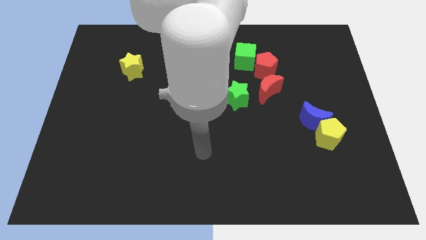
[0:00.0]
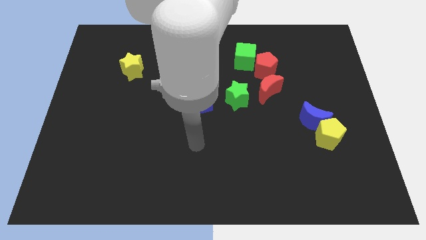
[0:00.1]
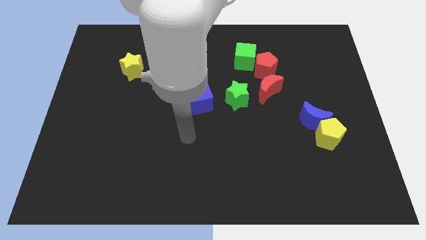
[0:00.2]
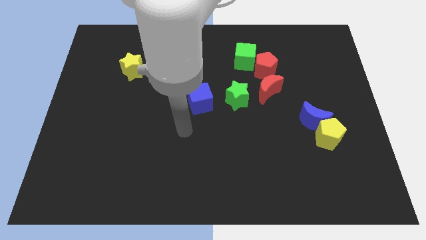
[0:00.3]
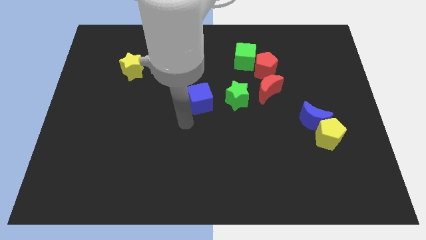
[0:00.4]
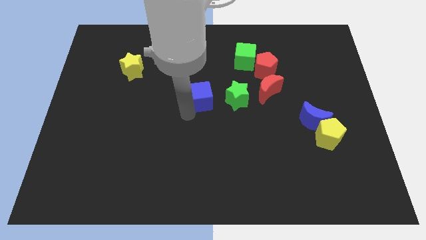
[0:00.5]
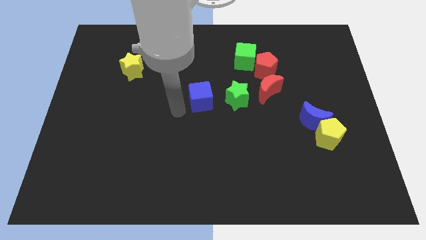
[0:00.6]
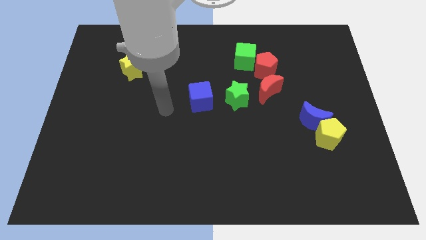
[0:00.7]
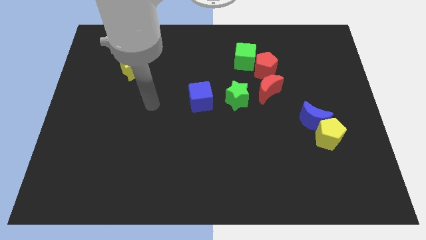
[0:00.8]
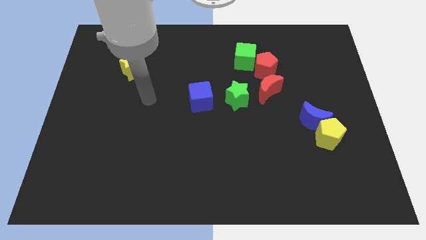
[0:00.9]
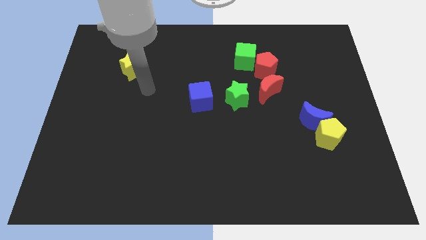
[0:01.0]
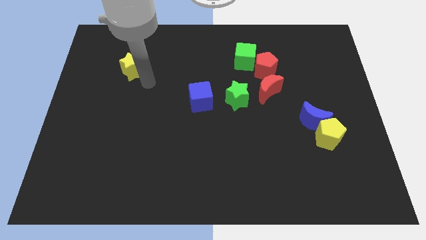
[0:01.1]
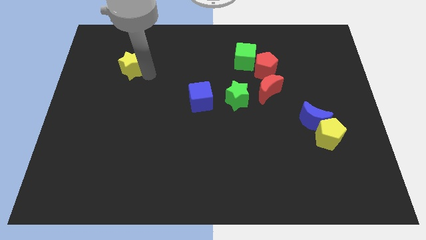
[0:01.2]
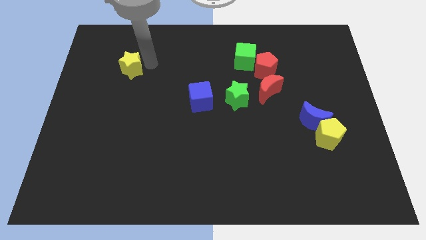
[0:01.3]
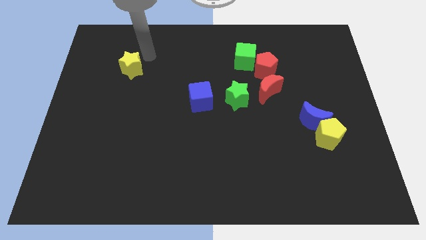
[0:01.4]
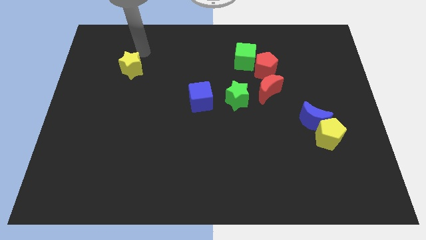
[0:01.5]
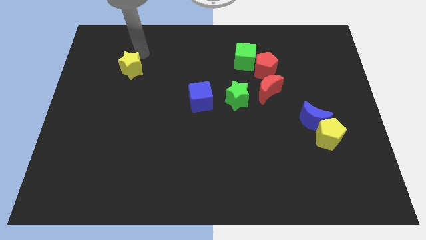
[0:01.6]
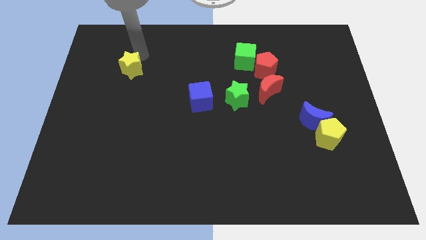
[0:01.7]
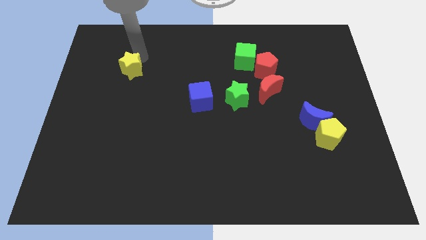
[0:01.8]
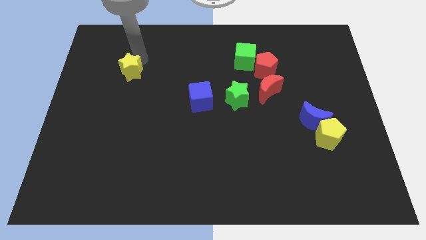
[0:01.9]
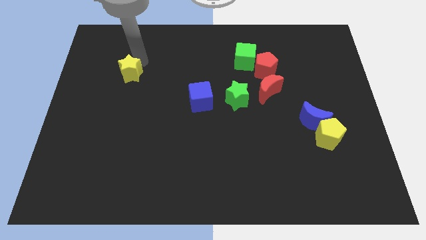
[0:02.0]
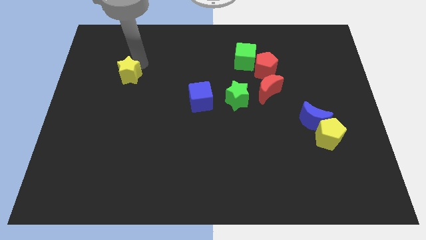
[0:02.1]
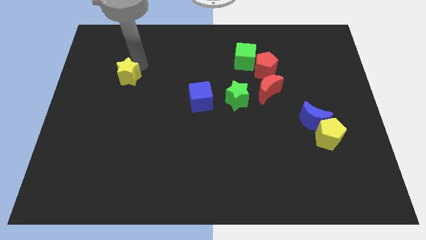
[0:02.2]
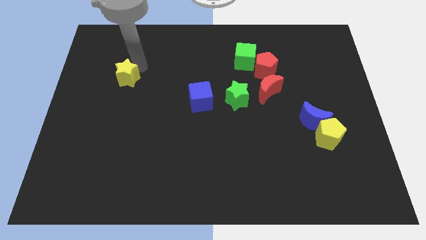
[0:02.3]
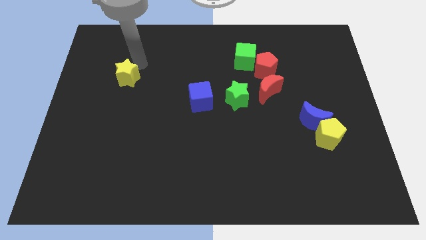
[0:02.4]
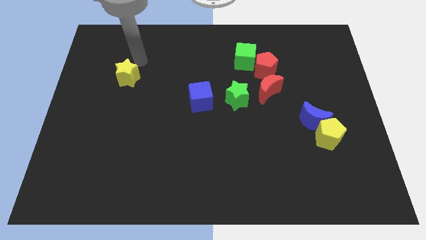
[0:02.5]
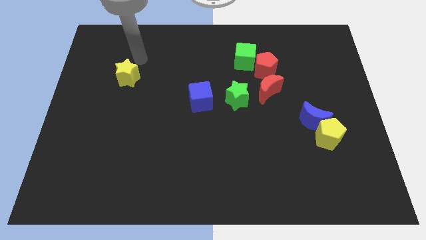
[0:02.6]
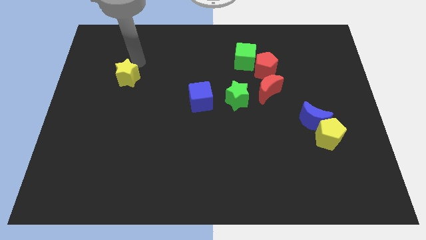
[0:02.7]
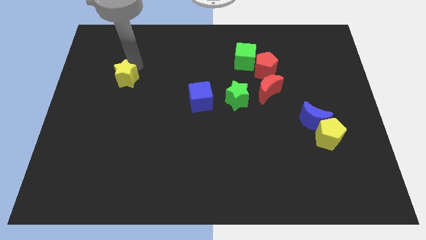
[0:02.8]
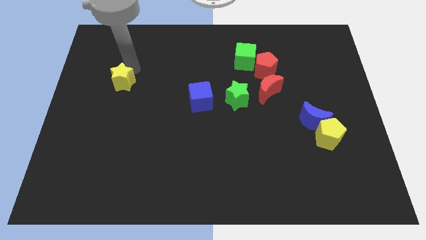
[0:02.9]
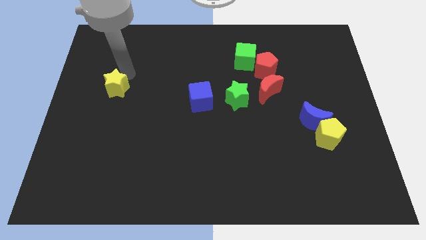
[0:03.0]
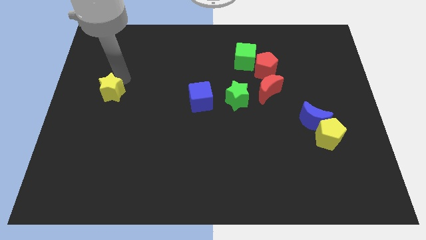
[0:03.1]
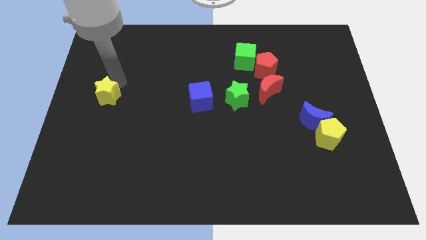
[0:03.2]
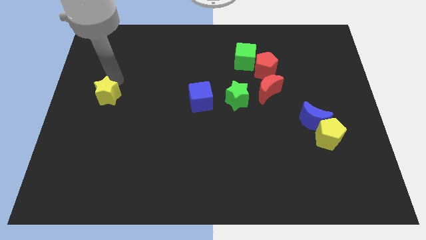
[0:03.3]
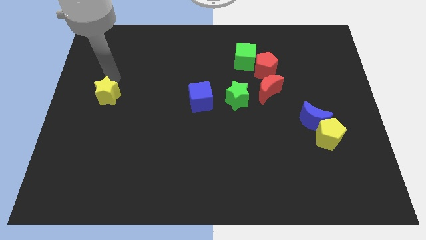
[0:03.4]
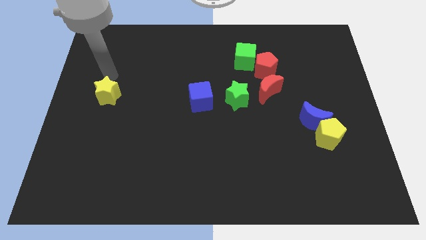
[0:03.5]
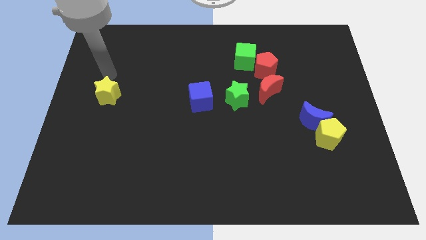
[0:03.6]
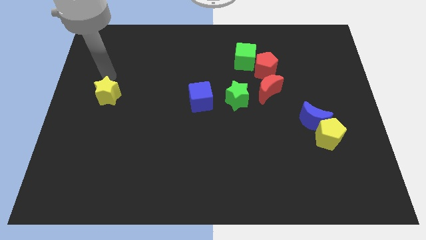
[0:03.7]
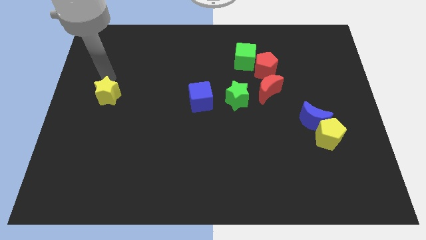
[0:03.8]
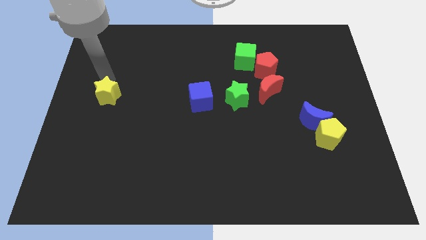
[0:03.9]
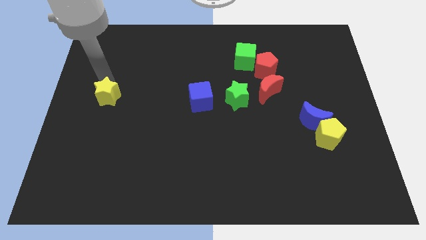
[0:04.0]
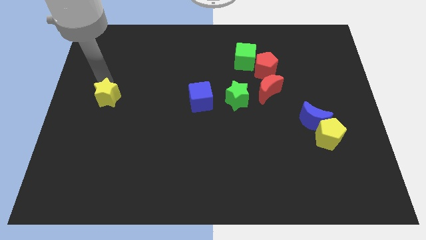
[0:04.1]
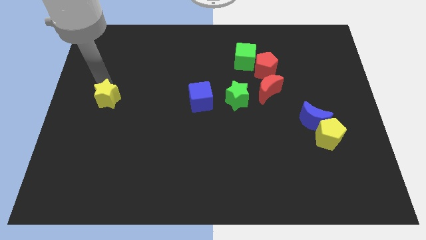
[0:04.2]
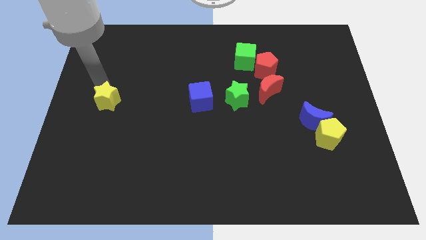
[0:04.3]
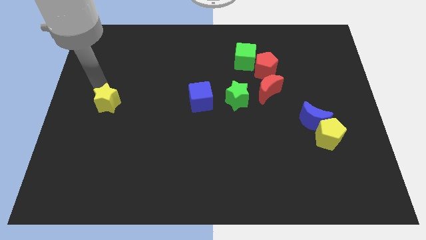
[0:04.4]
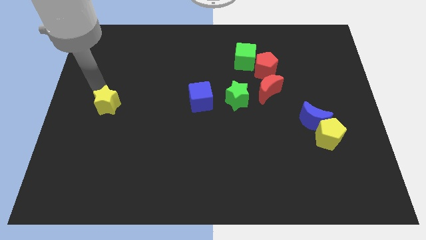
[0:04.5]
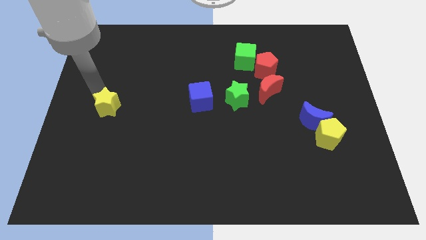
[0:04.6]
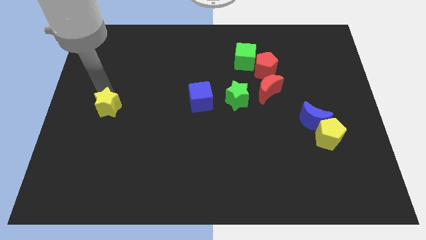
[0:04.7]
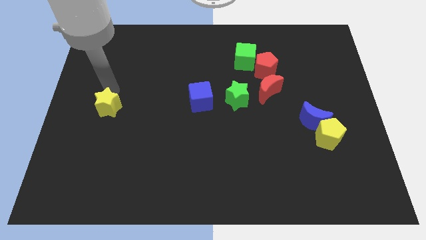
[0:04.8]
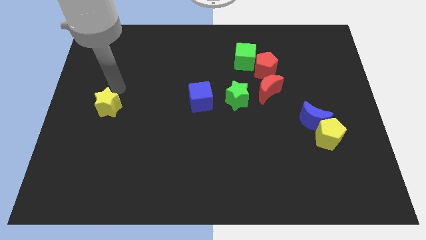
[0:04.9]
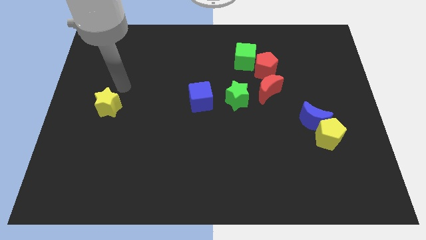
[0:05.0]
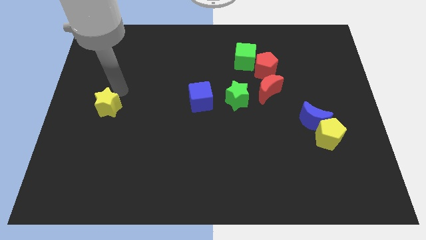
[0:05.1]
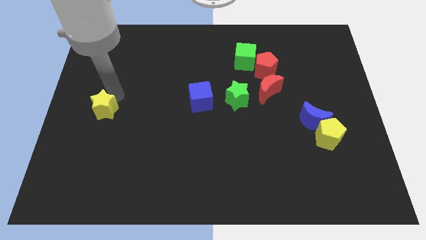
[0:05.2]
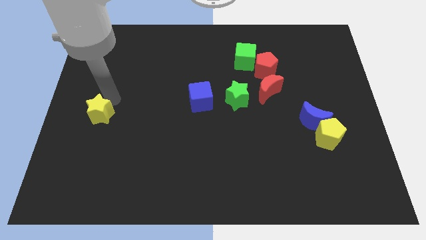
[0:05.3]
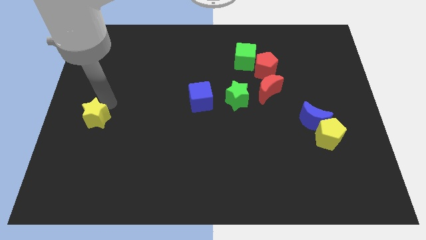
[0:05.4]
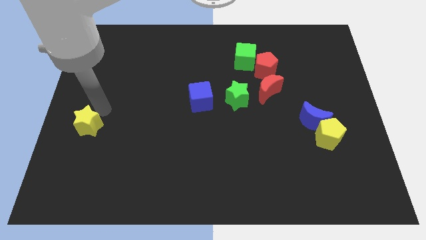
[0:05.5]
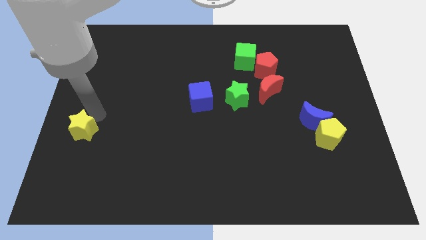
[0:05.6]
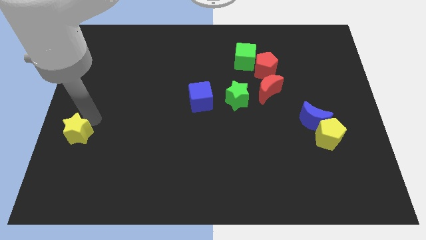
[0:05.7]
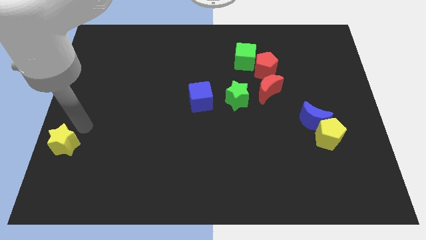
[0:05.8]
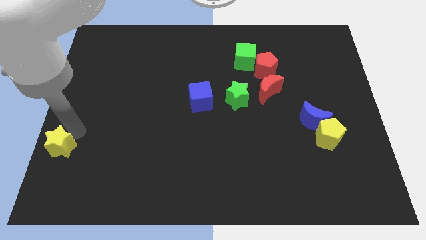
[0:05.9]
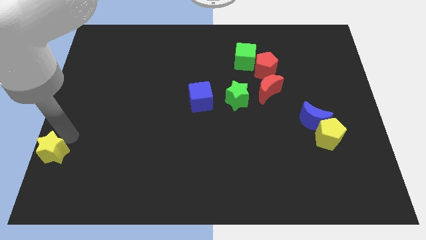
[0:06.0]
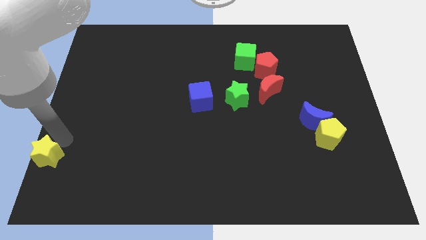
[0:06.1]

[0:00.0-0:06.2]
push the yellow star to the bottom left of the board

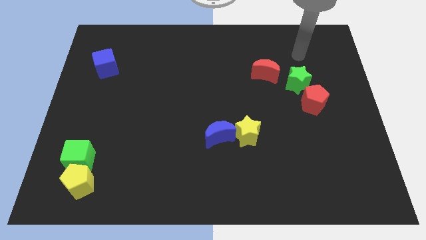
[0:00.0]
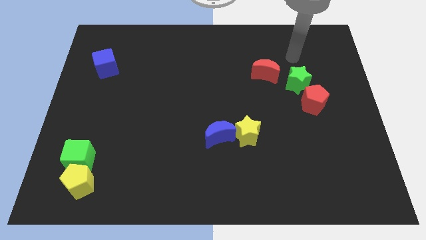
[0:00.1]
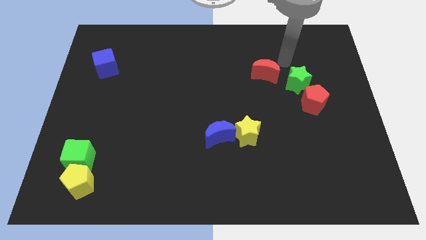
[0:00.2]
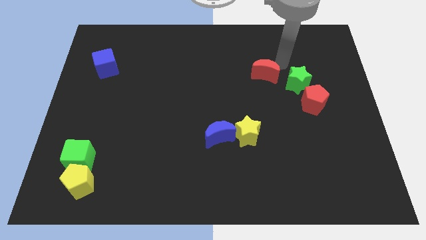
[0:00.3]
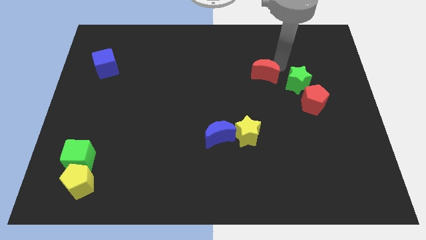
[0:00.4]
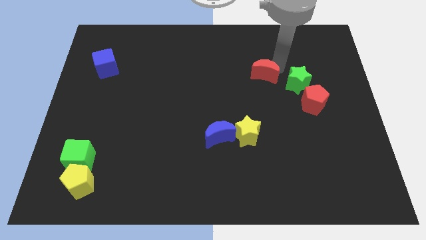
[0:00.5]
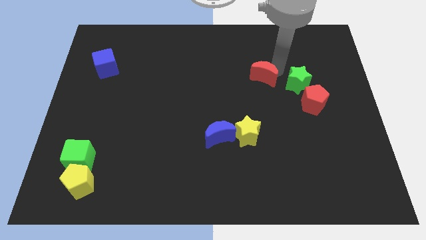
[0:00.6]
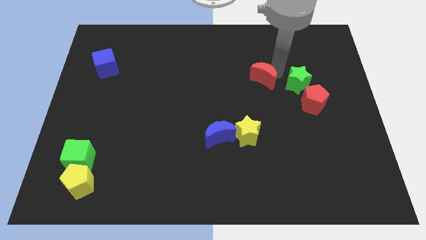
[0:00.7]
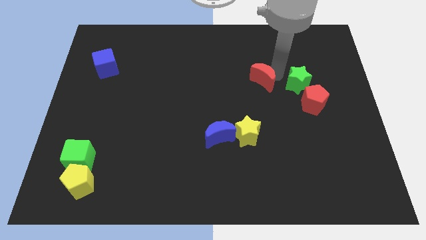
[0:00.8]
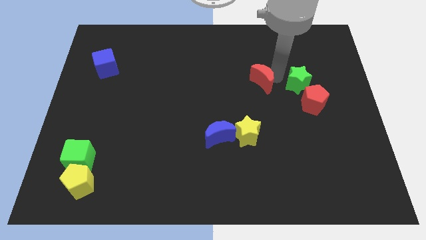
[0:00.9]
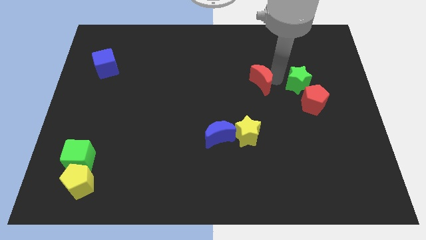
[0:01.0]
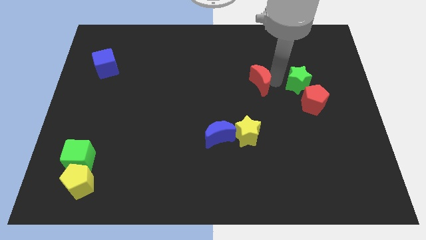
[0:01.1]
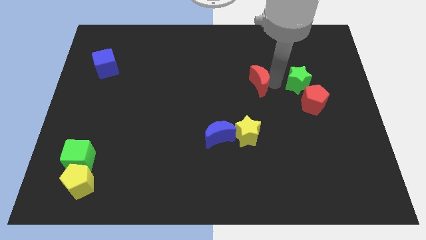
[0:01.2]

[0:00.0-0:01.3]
slide the red moon to the middle of the board
